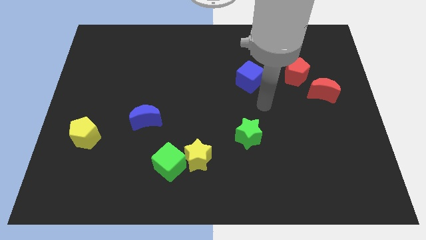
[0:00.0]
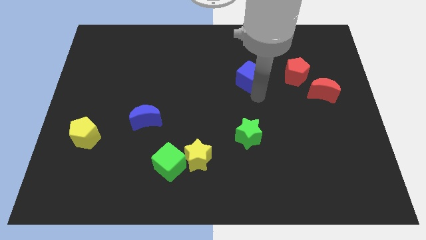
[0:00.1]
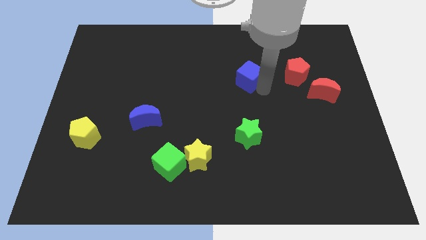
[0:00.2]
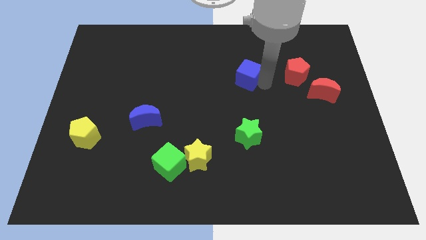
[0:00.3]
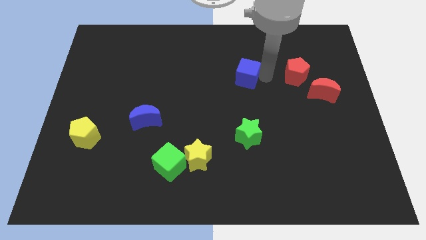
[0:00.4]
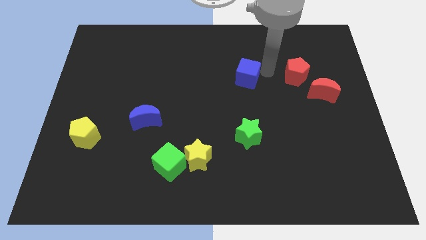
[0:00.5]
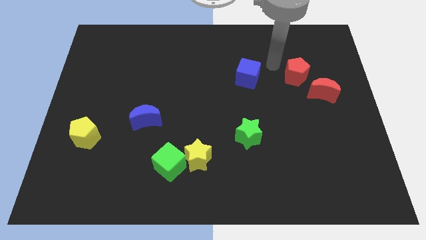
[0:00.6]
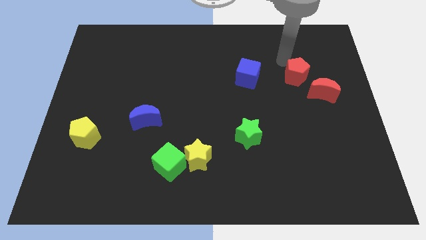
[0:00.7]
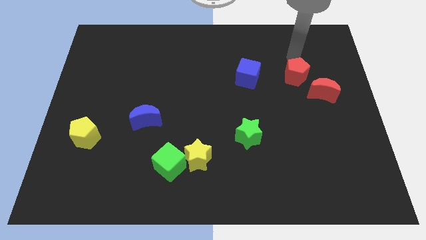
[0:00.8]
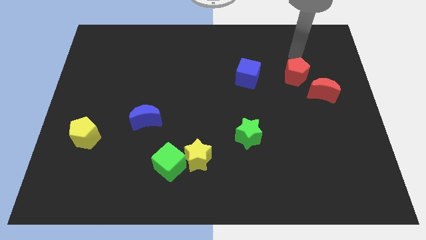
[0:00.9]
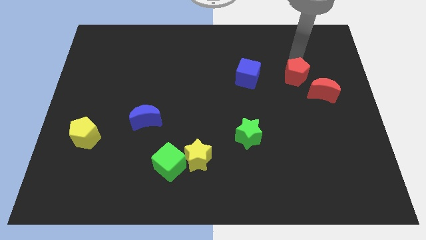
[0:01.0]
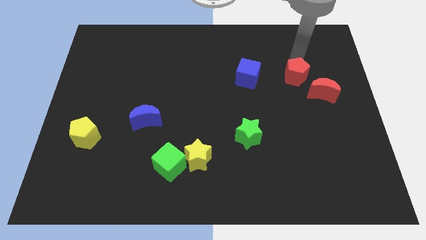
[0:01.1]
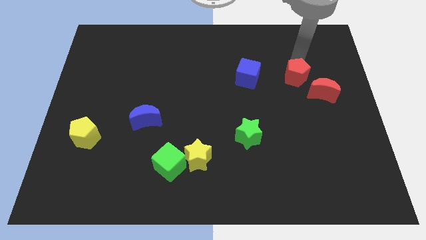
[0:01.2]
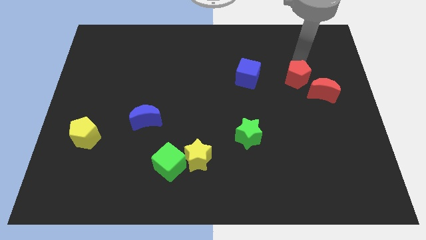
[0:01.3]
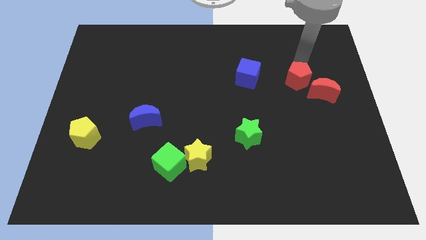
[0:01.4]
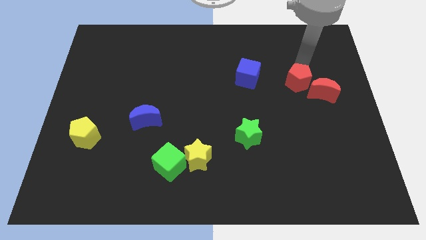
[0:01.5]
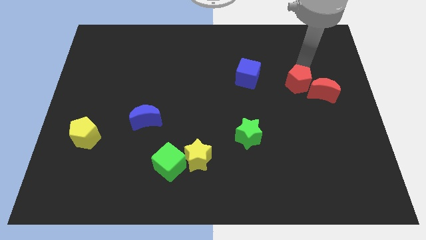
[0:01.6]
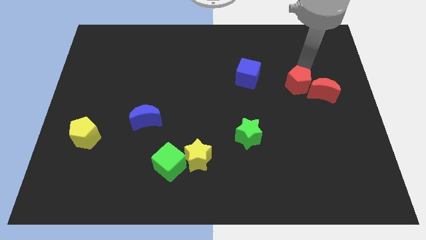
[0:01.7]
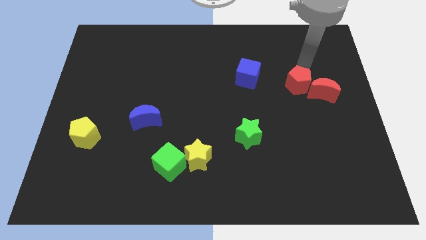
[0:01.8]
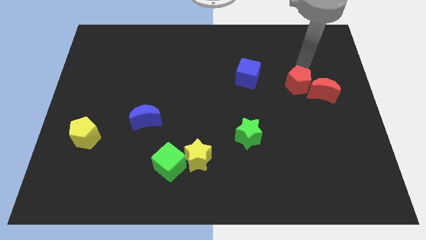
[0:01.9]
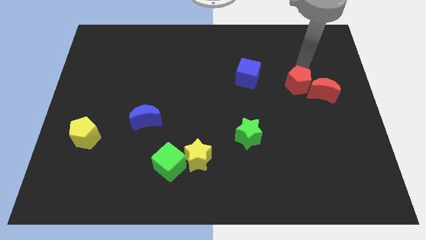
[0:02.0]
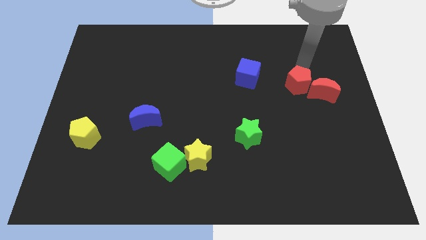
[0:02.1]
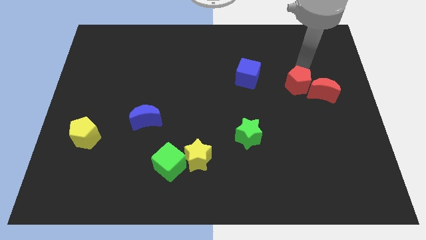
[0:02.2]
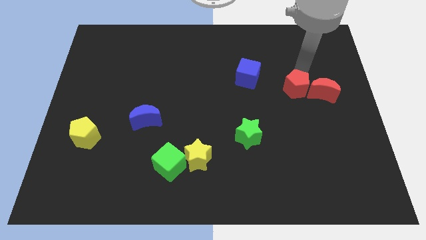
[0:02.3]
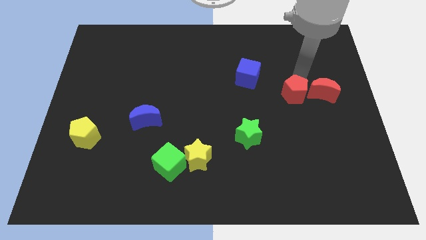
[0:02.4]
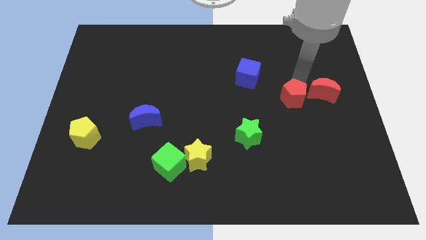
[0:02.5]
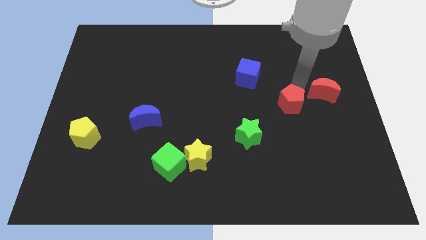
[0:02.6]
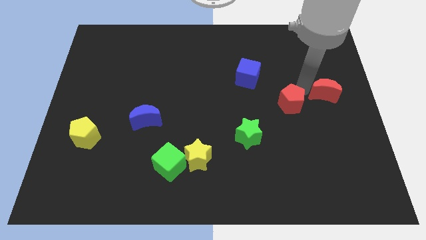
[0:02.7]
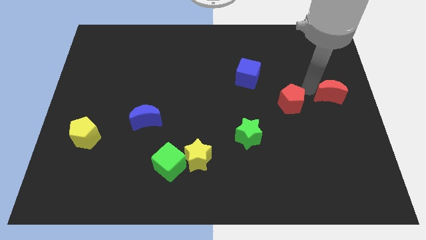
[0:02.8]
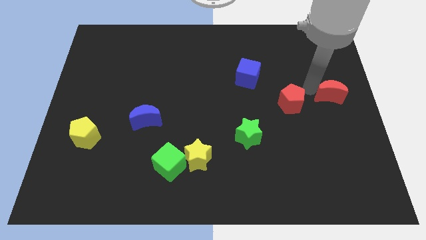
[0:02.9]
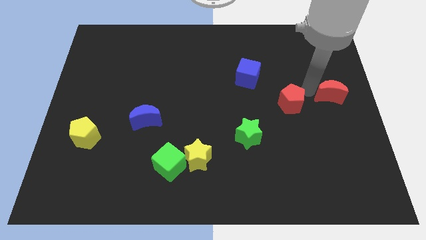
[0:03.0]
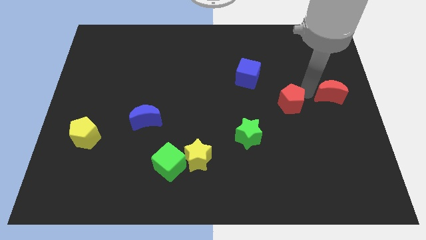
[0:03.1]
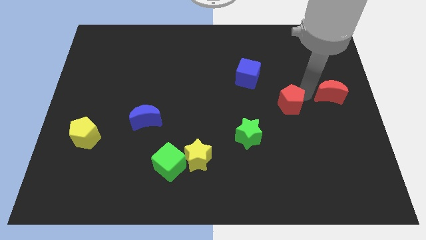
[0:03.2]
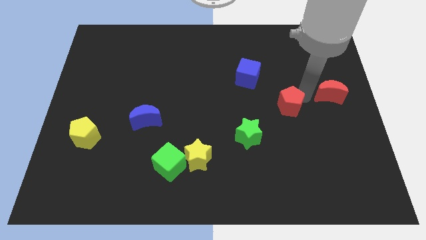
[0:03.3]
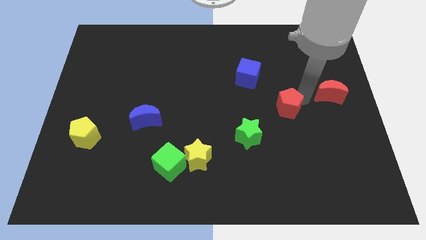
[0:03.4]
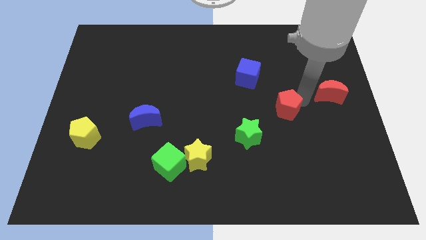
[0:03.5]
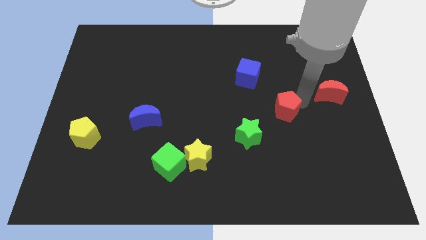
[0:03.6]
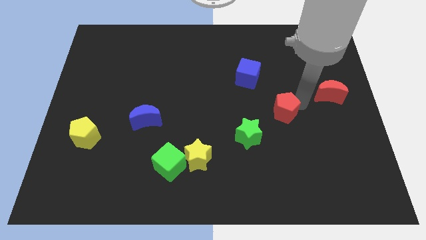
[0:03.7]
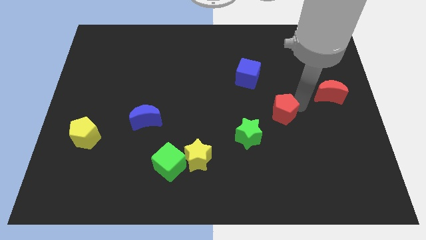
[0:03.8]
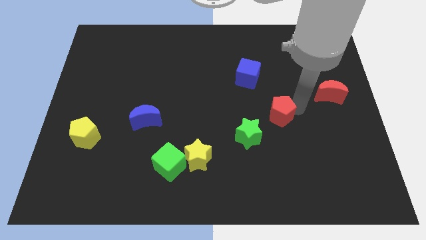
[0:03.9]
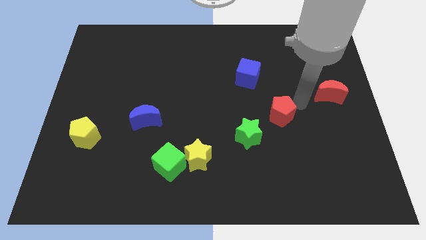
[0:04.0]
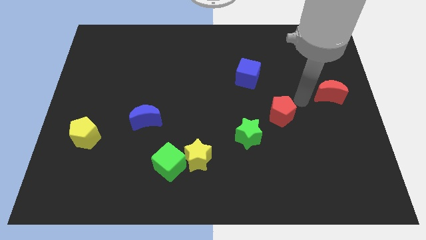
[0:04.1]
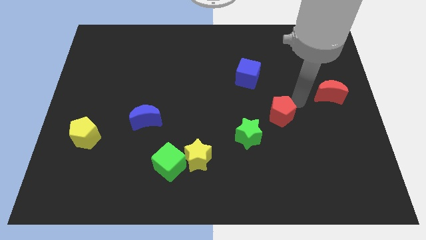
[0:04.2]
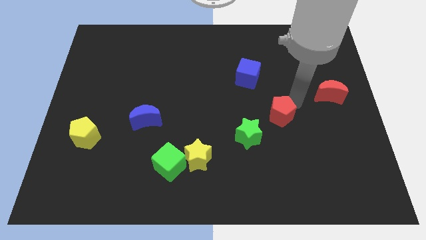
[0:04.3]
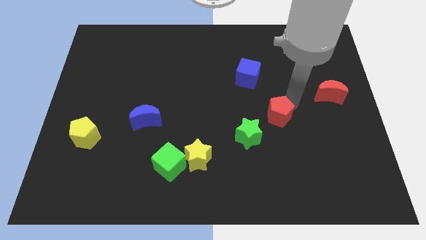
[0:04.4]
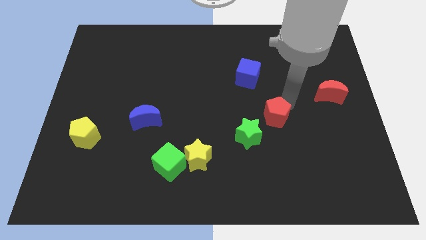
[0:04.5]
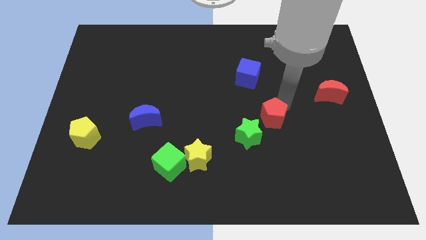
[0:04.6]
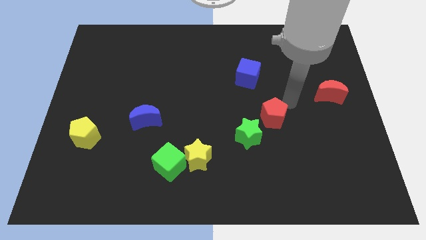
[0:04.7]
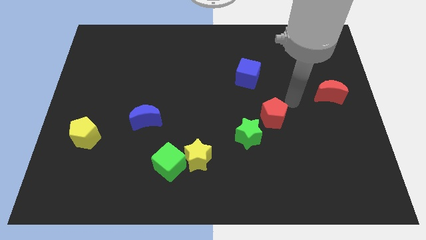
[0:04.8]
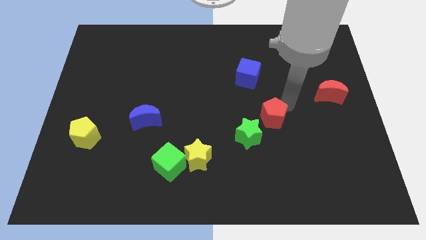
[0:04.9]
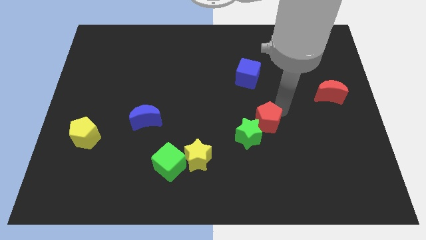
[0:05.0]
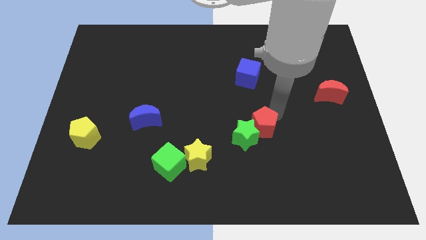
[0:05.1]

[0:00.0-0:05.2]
slide the red pentagon next to the green star

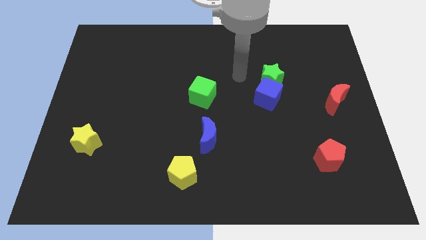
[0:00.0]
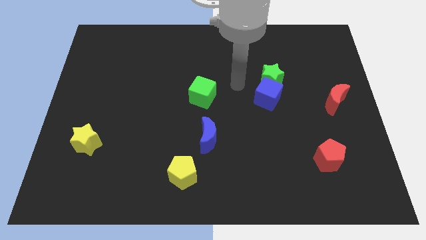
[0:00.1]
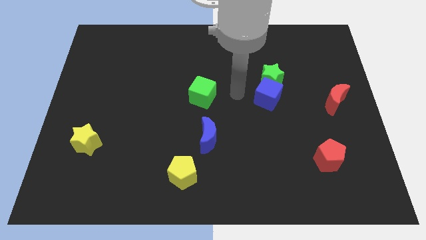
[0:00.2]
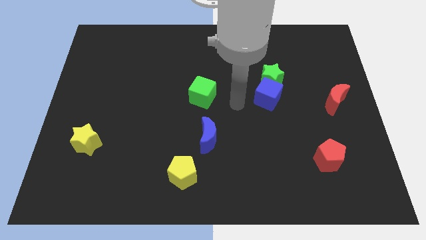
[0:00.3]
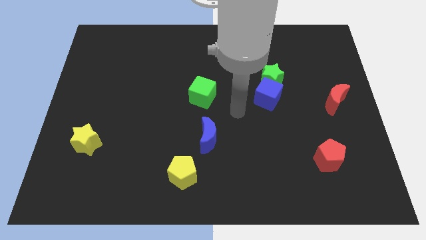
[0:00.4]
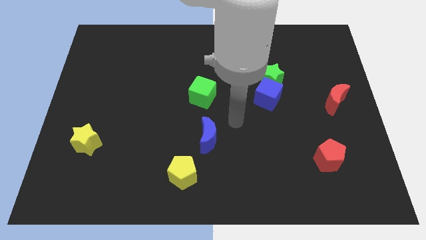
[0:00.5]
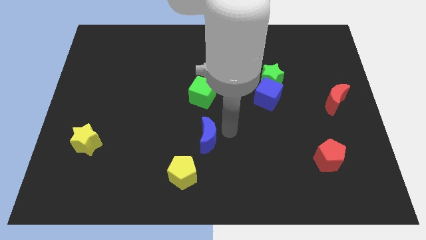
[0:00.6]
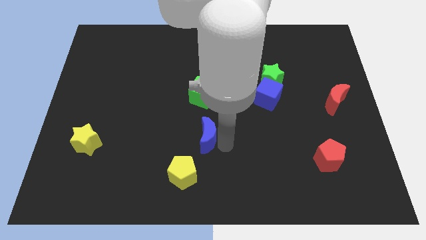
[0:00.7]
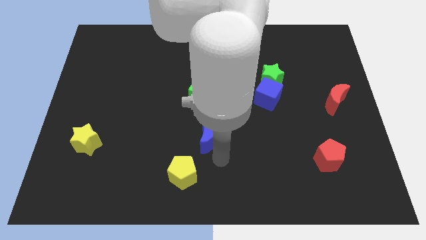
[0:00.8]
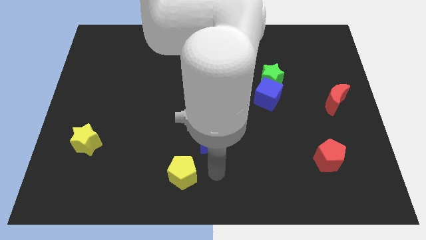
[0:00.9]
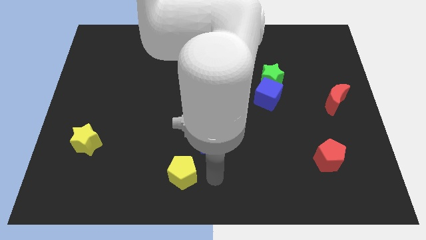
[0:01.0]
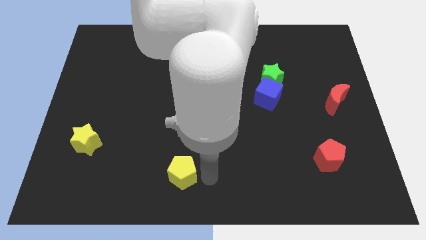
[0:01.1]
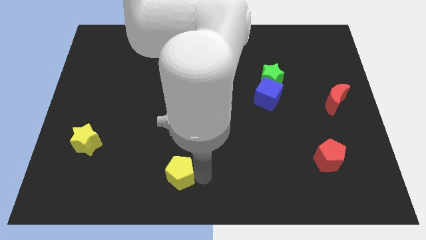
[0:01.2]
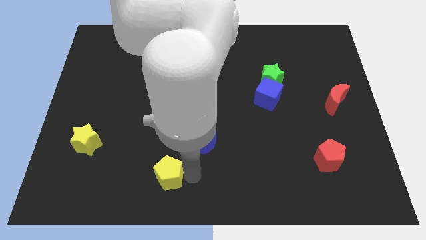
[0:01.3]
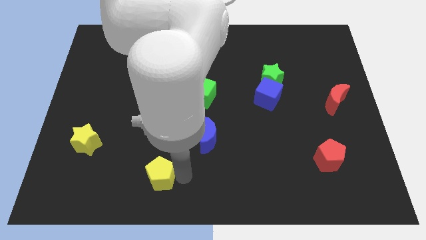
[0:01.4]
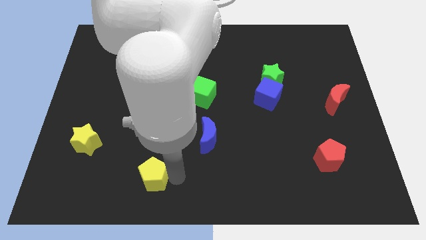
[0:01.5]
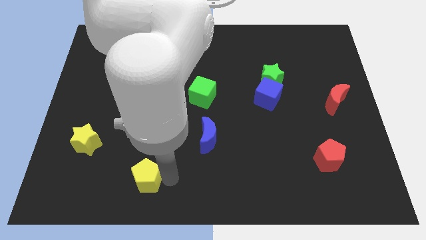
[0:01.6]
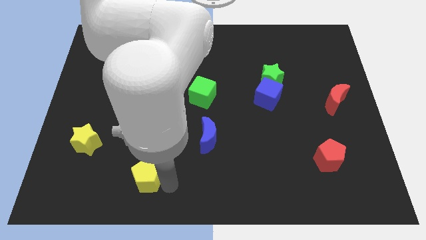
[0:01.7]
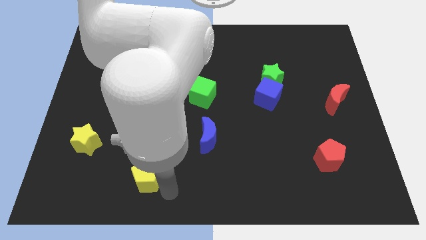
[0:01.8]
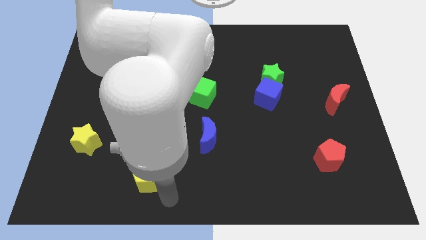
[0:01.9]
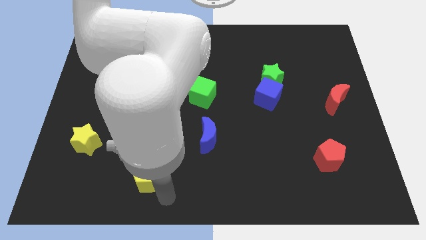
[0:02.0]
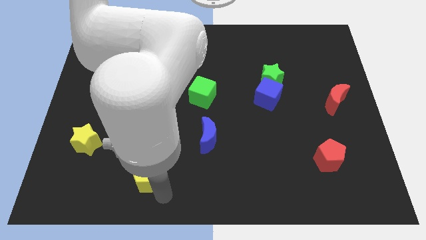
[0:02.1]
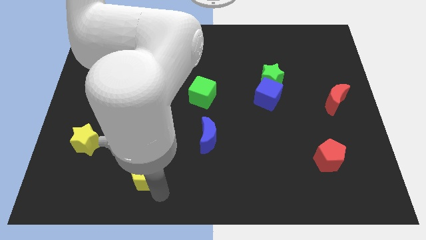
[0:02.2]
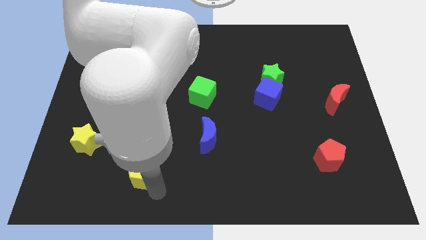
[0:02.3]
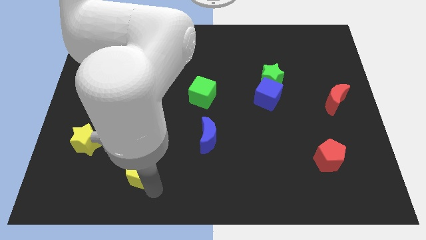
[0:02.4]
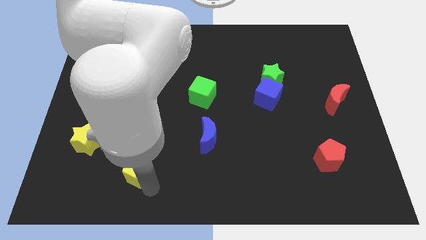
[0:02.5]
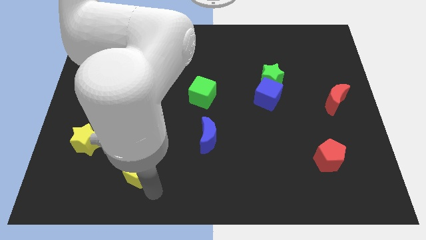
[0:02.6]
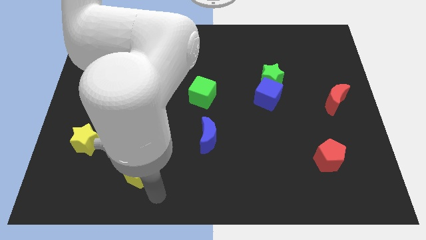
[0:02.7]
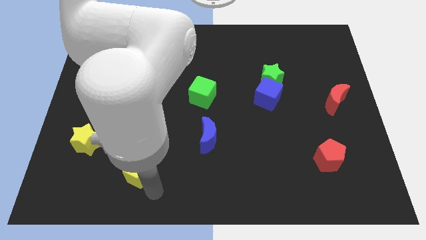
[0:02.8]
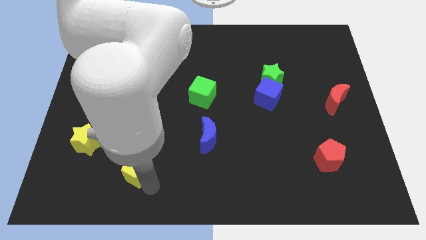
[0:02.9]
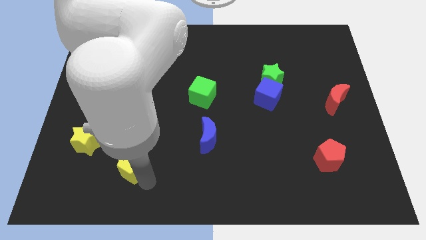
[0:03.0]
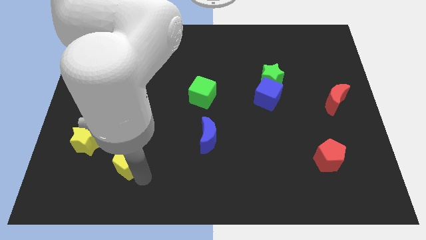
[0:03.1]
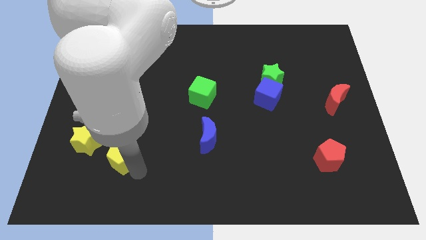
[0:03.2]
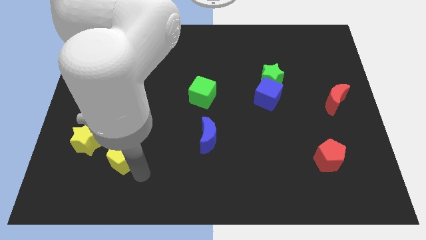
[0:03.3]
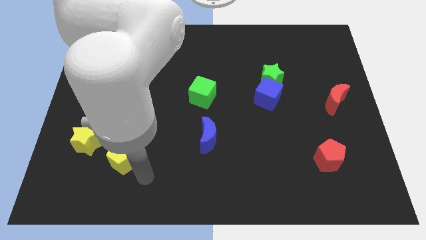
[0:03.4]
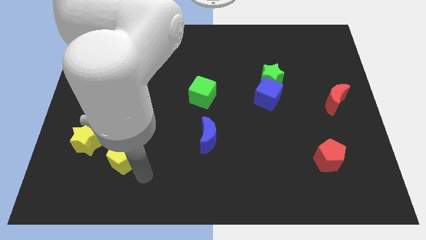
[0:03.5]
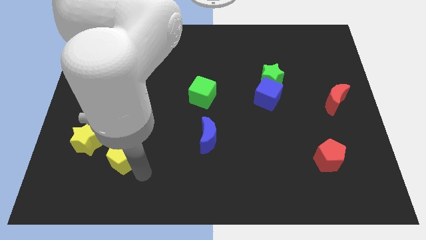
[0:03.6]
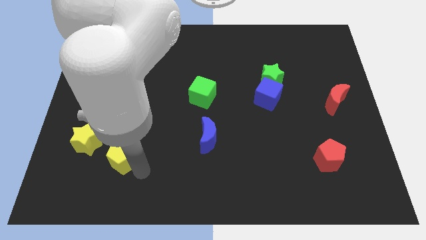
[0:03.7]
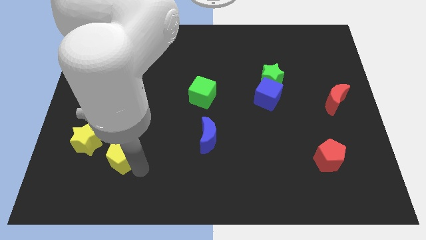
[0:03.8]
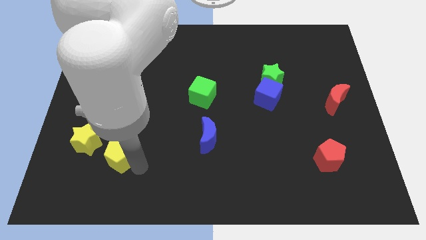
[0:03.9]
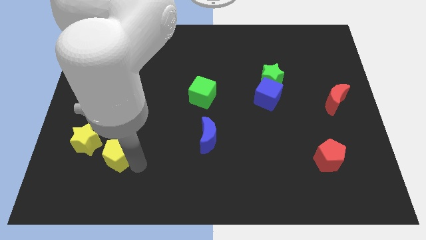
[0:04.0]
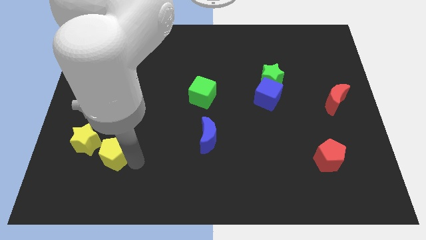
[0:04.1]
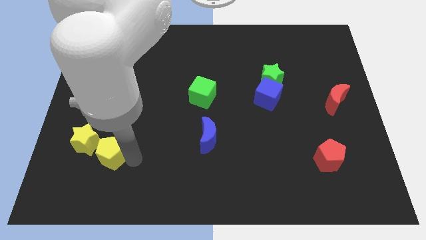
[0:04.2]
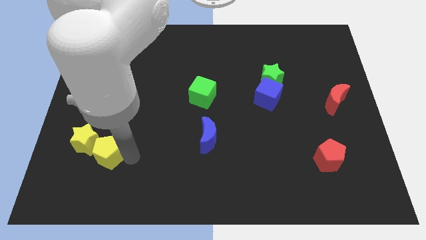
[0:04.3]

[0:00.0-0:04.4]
move the yellow pentagon to the yellow star
